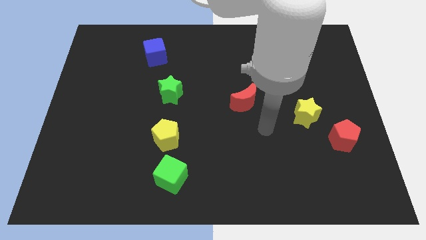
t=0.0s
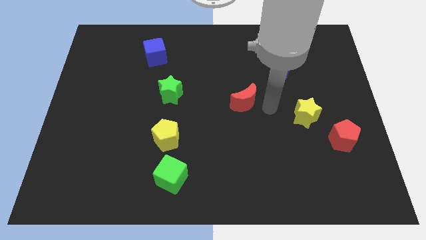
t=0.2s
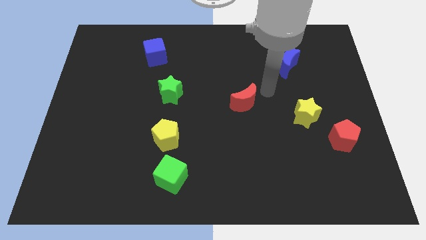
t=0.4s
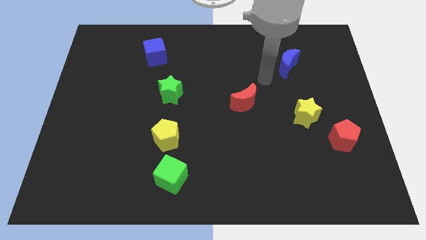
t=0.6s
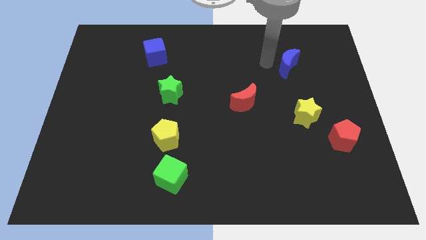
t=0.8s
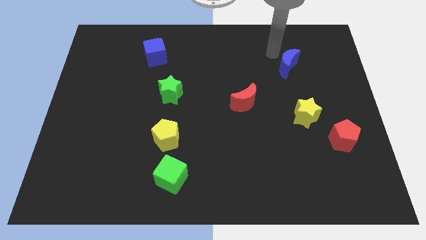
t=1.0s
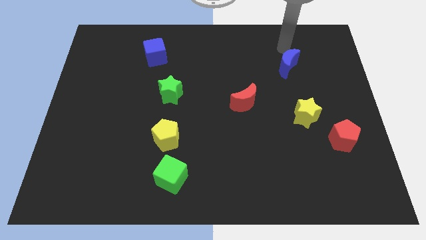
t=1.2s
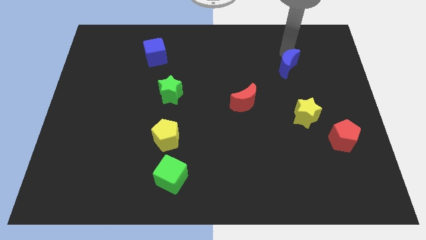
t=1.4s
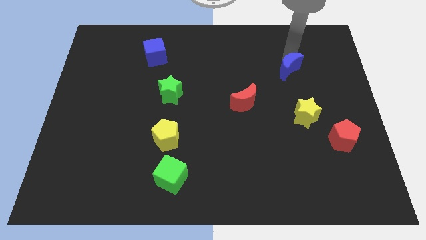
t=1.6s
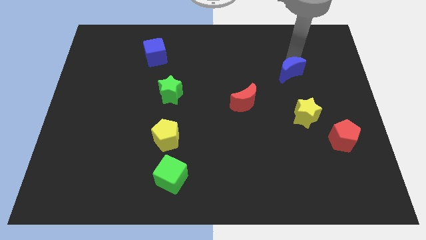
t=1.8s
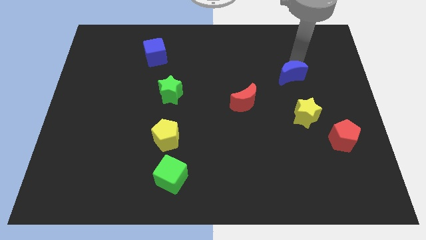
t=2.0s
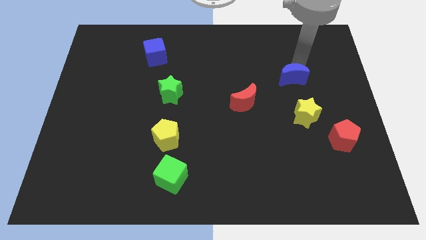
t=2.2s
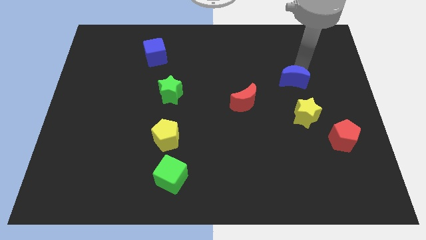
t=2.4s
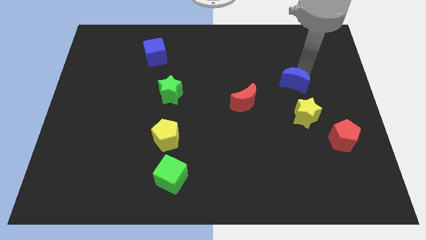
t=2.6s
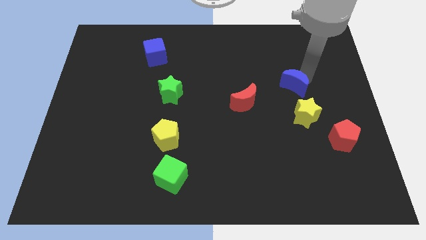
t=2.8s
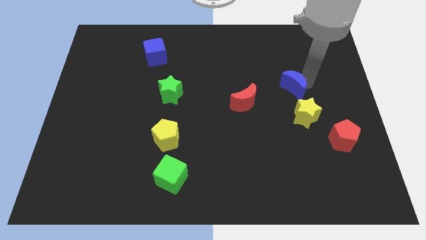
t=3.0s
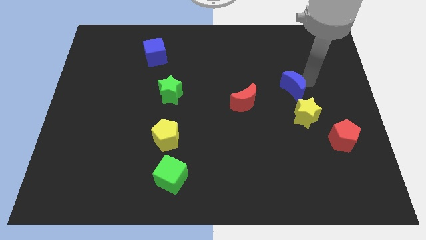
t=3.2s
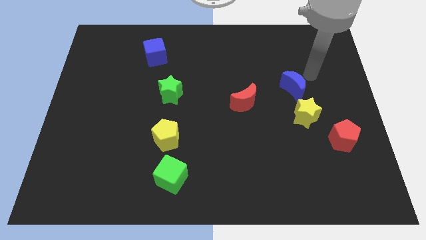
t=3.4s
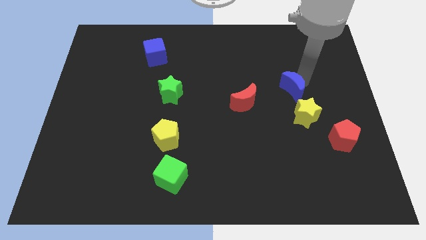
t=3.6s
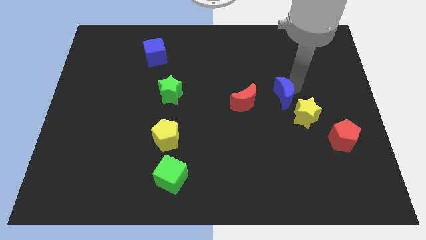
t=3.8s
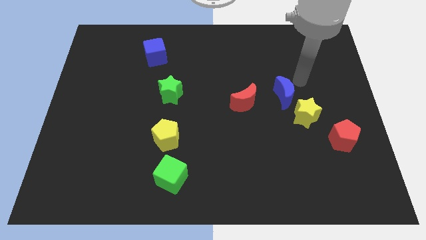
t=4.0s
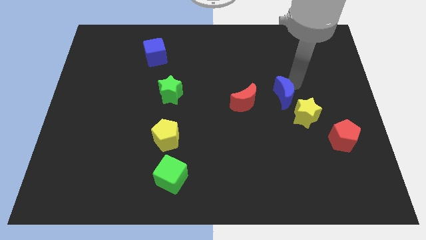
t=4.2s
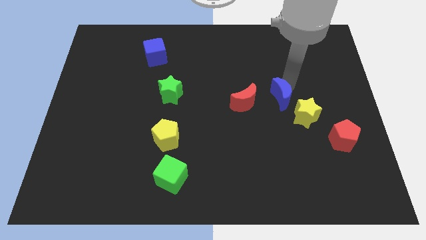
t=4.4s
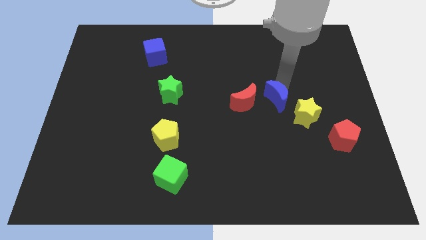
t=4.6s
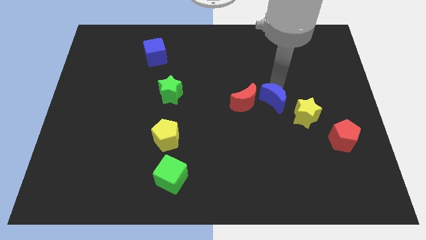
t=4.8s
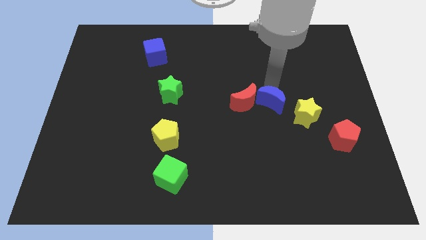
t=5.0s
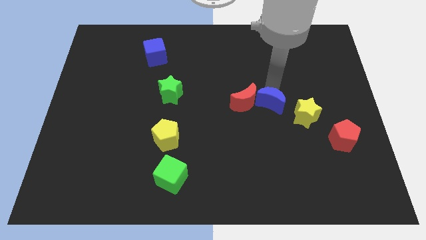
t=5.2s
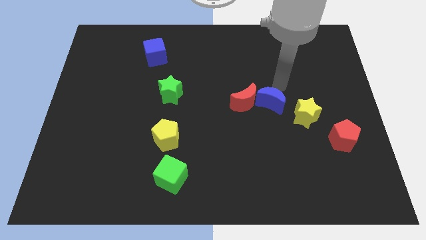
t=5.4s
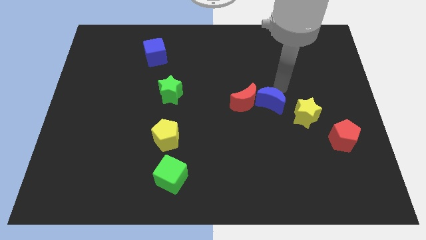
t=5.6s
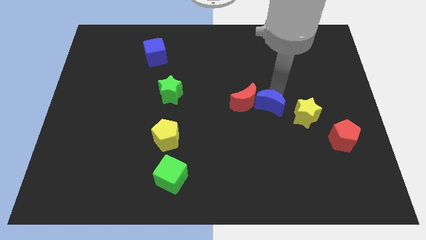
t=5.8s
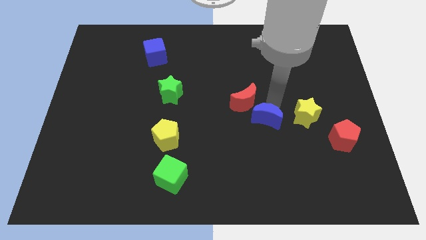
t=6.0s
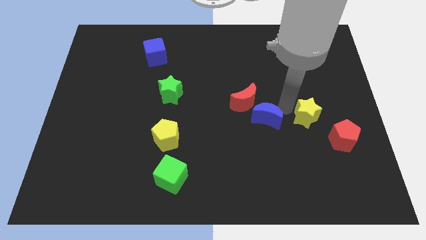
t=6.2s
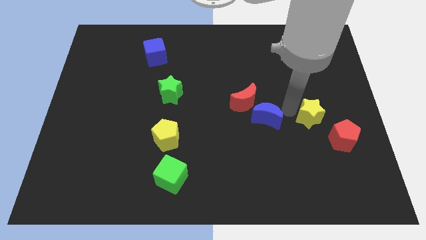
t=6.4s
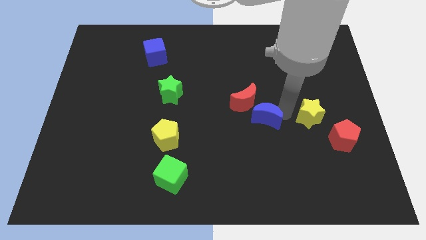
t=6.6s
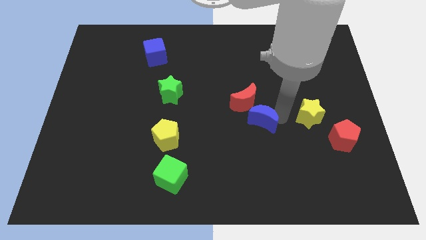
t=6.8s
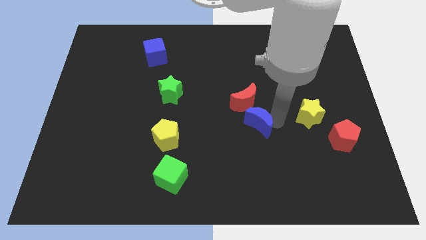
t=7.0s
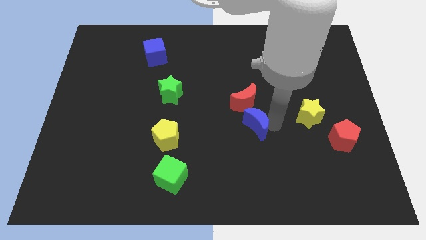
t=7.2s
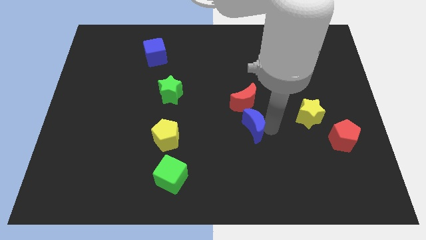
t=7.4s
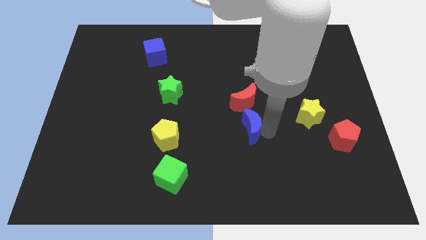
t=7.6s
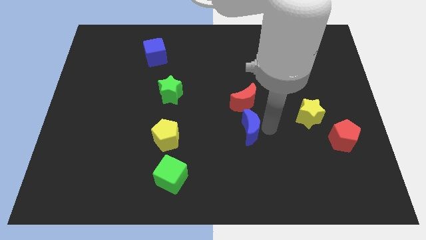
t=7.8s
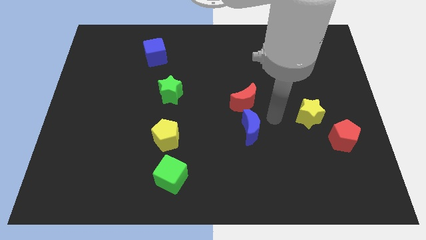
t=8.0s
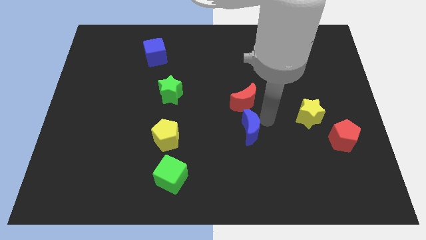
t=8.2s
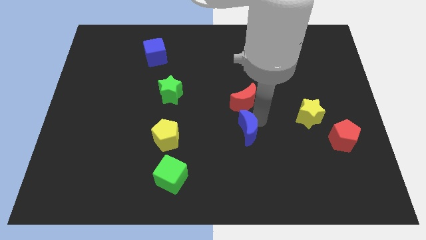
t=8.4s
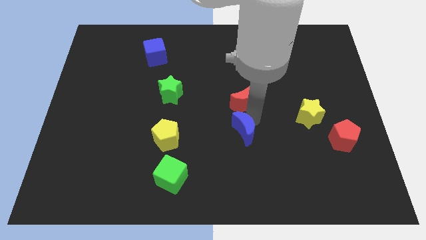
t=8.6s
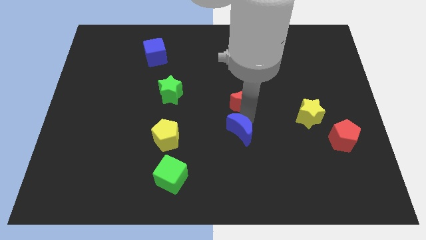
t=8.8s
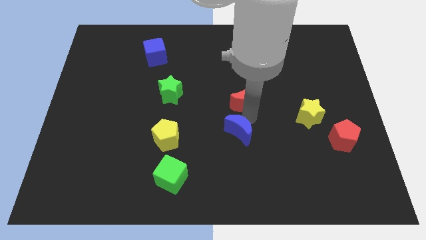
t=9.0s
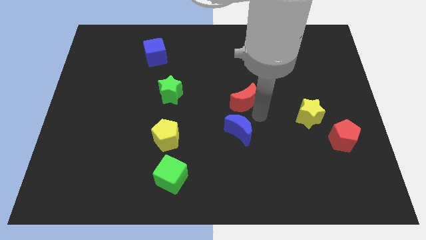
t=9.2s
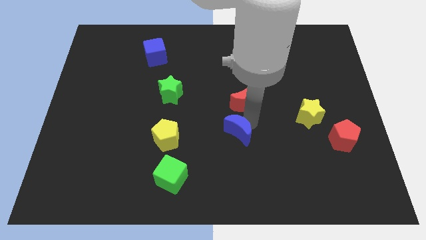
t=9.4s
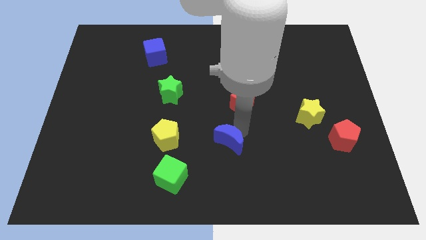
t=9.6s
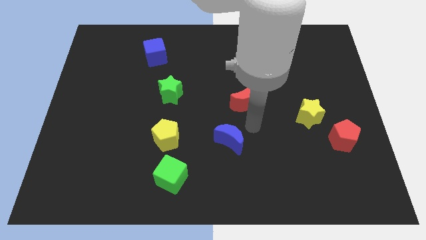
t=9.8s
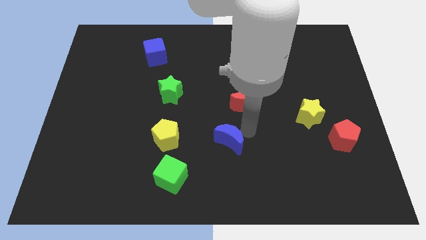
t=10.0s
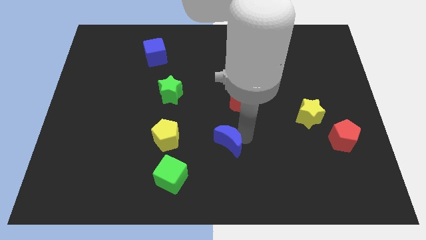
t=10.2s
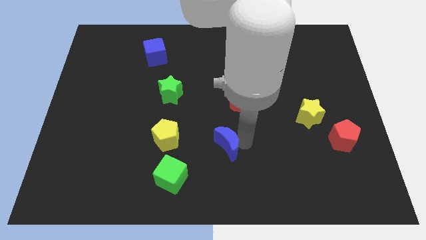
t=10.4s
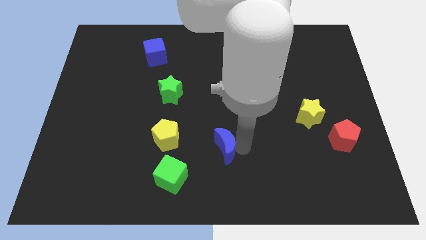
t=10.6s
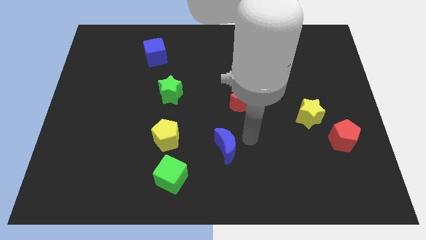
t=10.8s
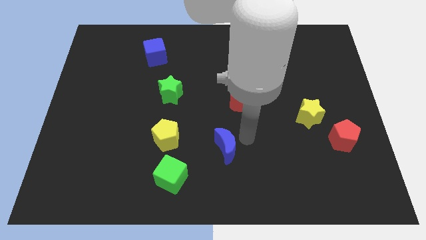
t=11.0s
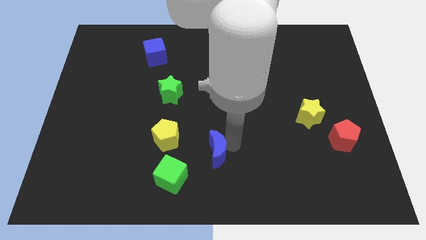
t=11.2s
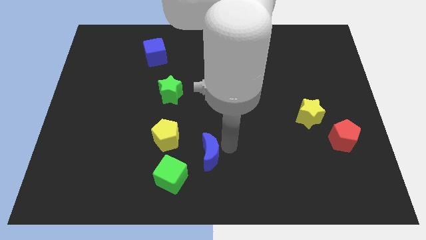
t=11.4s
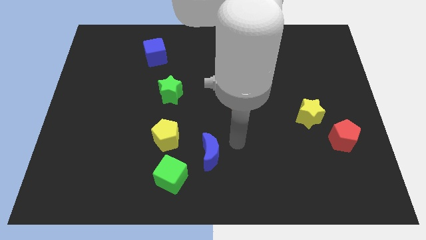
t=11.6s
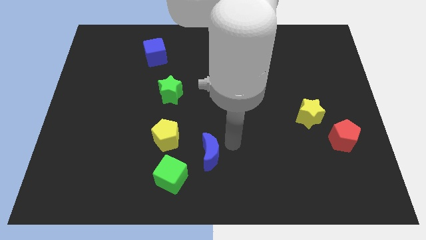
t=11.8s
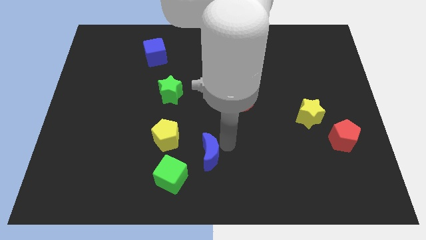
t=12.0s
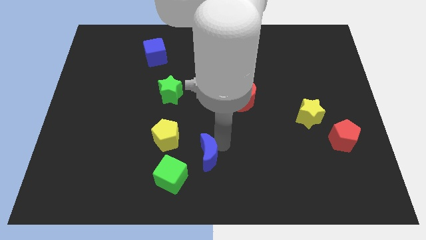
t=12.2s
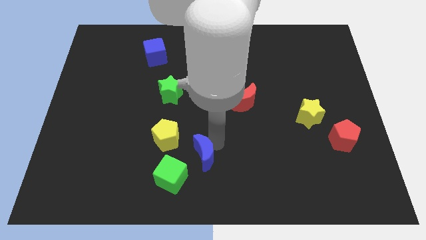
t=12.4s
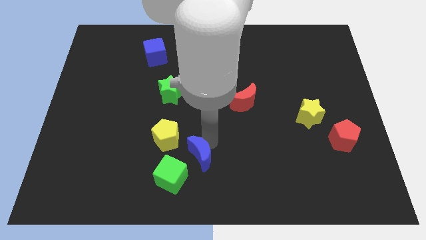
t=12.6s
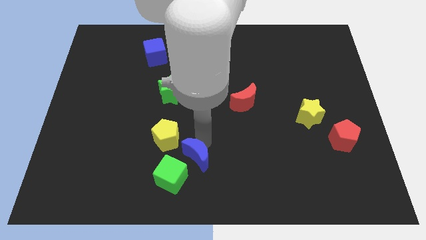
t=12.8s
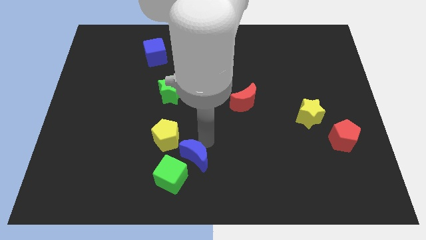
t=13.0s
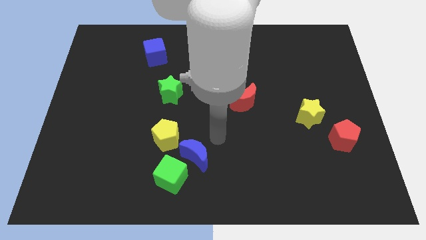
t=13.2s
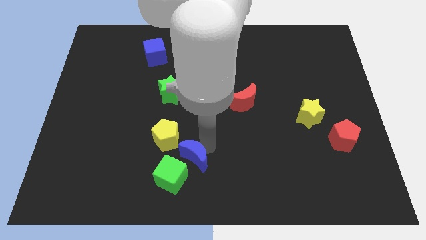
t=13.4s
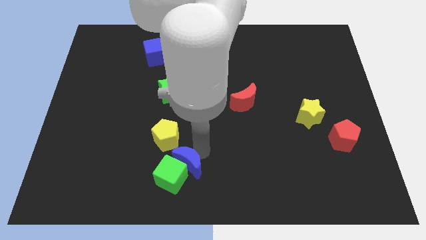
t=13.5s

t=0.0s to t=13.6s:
put the blue moon to the green cube
